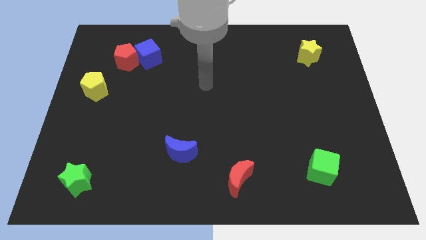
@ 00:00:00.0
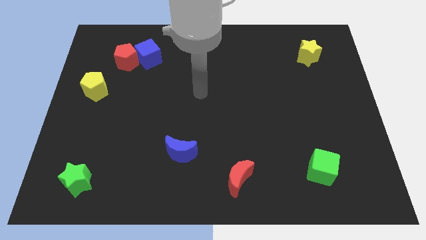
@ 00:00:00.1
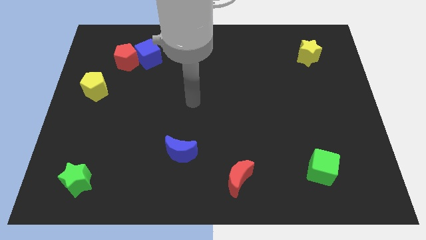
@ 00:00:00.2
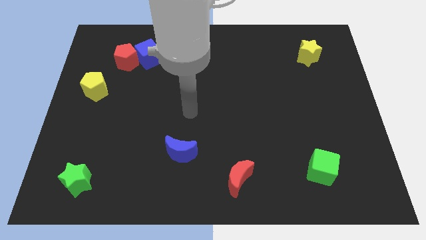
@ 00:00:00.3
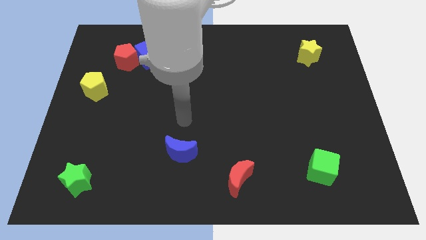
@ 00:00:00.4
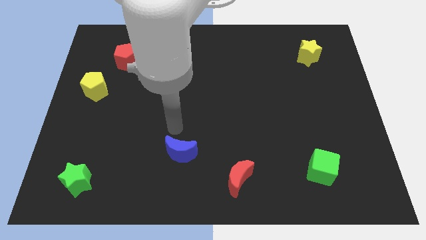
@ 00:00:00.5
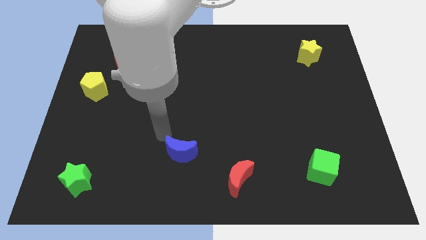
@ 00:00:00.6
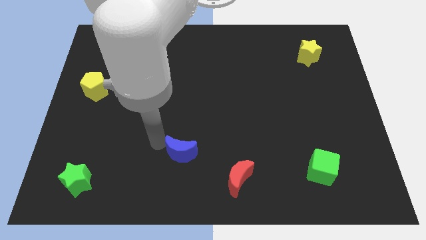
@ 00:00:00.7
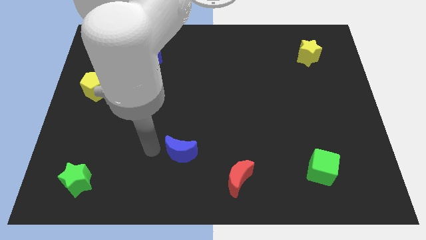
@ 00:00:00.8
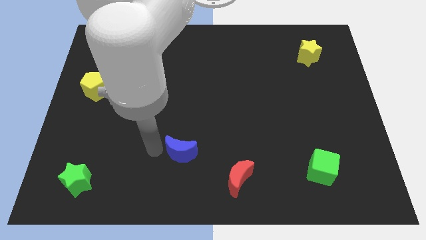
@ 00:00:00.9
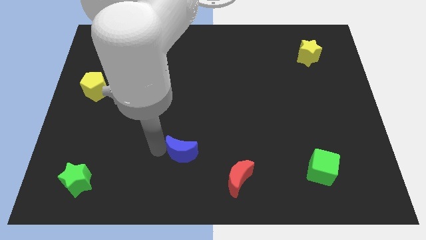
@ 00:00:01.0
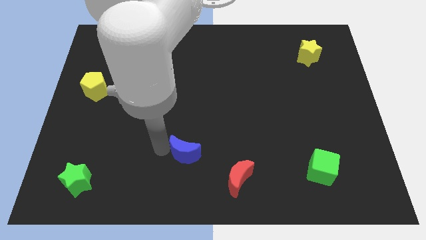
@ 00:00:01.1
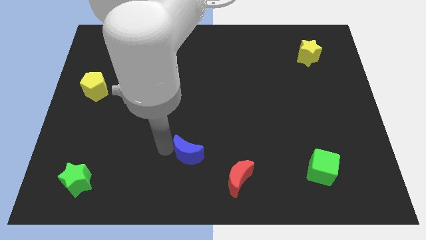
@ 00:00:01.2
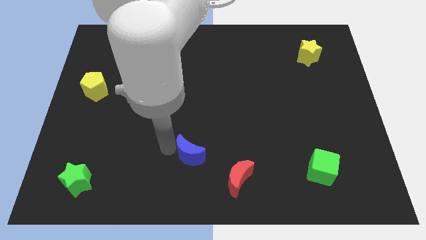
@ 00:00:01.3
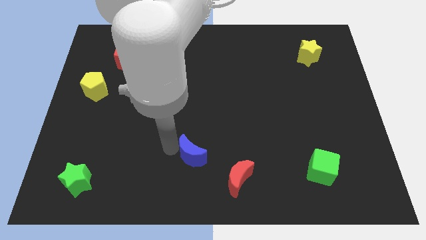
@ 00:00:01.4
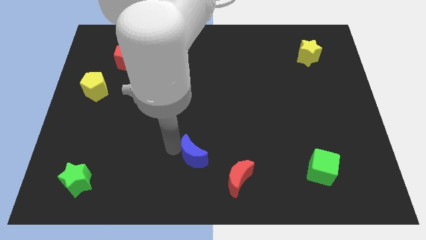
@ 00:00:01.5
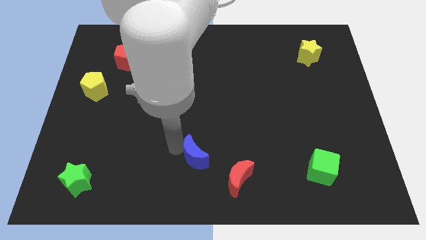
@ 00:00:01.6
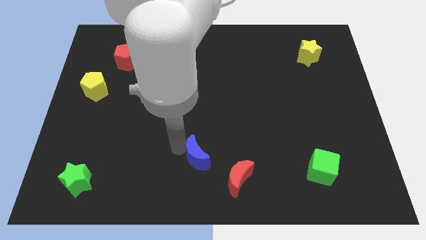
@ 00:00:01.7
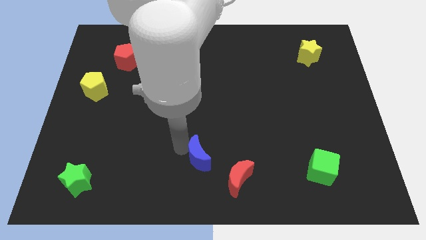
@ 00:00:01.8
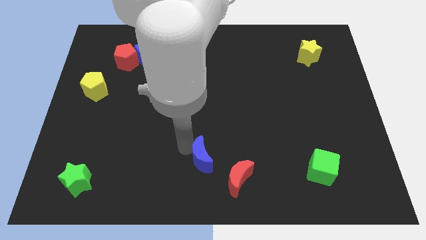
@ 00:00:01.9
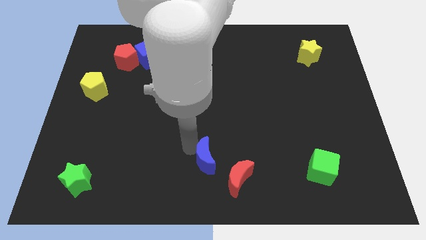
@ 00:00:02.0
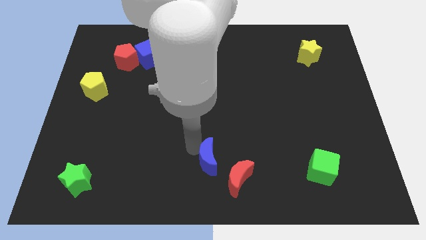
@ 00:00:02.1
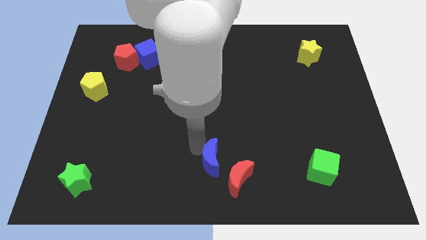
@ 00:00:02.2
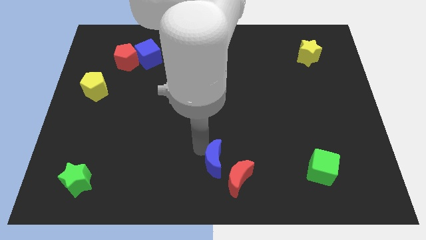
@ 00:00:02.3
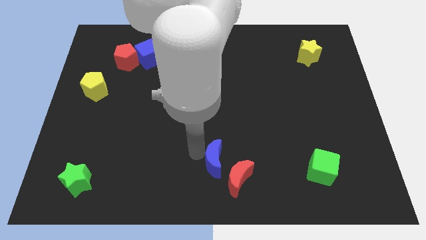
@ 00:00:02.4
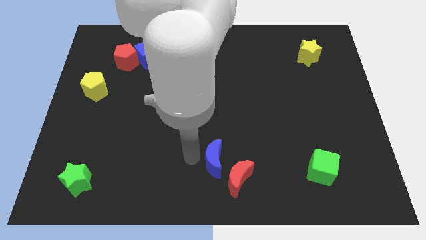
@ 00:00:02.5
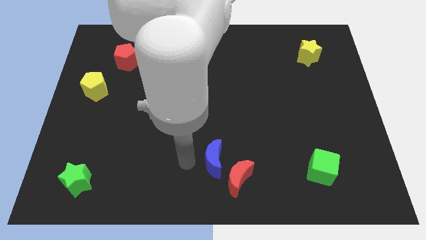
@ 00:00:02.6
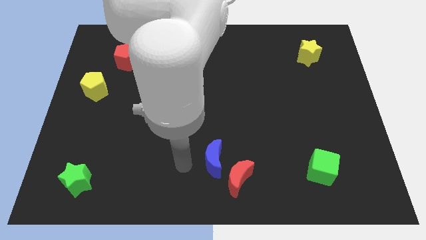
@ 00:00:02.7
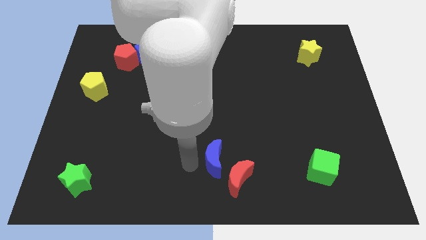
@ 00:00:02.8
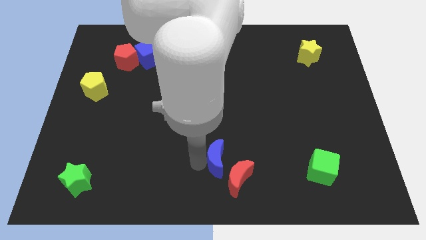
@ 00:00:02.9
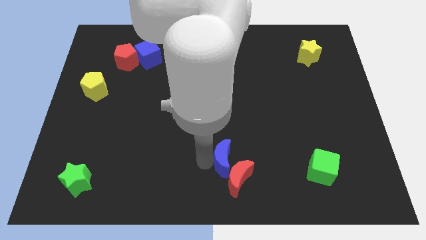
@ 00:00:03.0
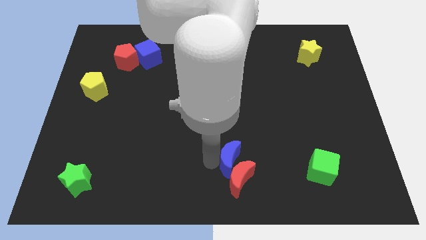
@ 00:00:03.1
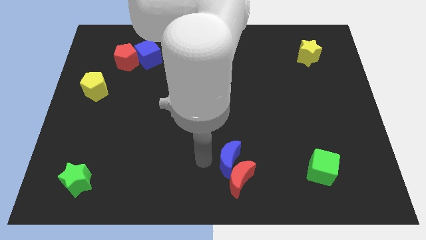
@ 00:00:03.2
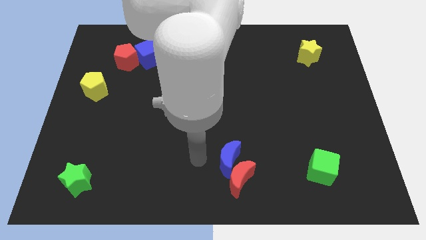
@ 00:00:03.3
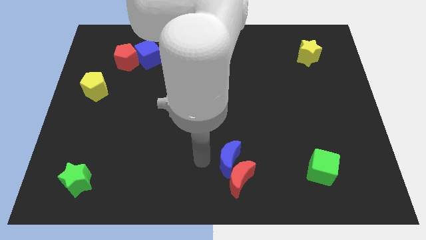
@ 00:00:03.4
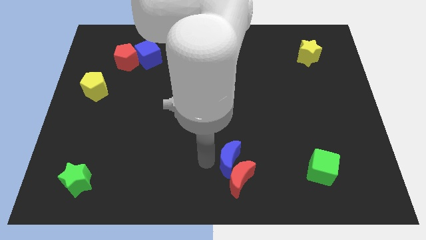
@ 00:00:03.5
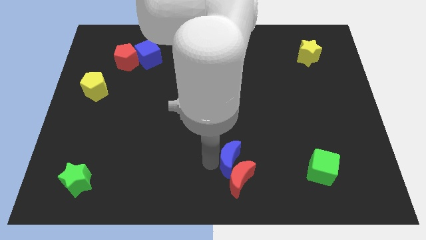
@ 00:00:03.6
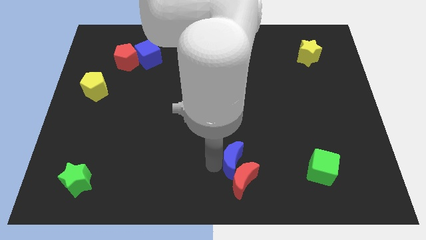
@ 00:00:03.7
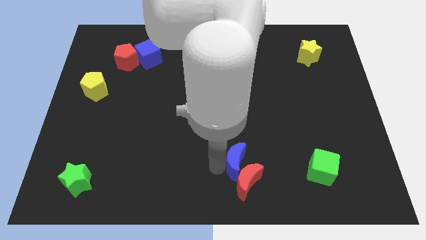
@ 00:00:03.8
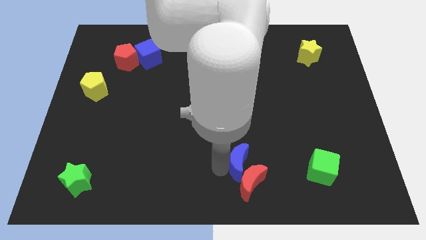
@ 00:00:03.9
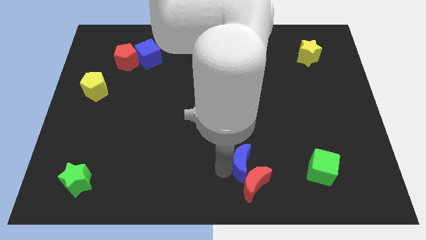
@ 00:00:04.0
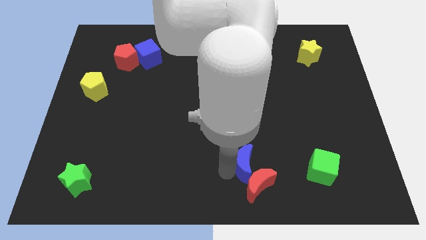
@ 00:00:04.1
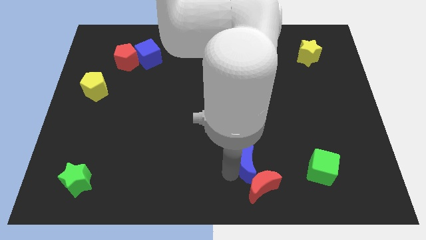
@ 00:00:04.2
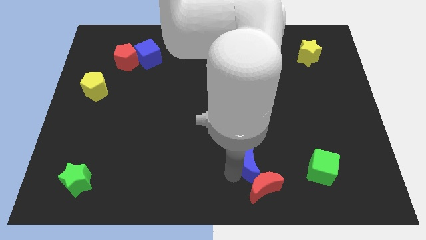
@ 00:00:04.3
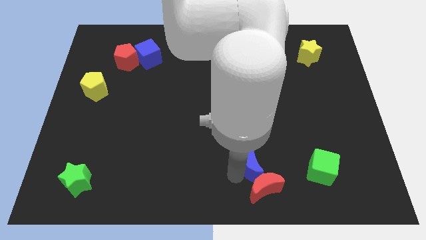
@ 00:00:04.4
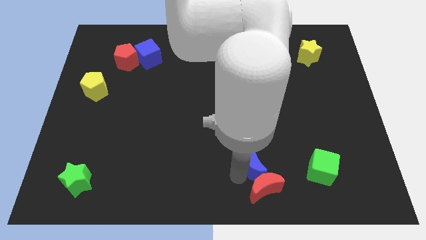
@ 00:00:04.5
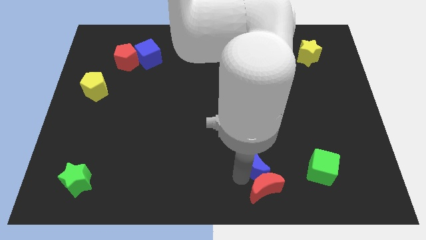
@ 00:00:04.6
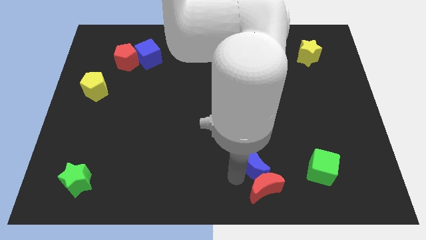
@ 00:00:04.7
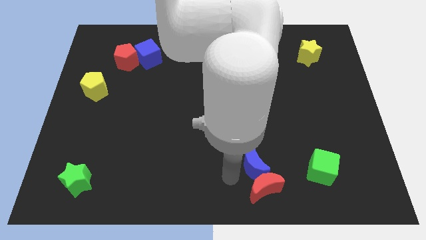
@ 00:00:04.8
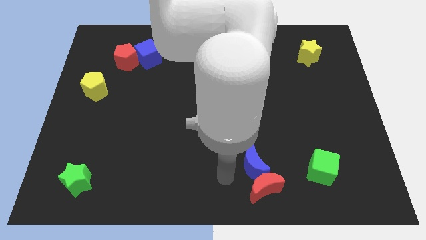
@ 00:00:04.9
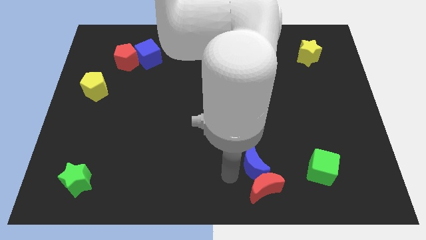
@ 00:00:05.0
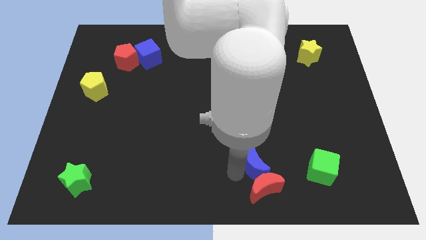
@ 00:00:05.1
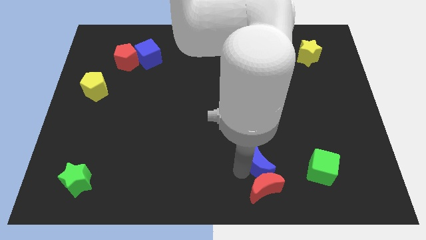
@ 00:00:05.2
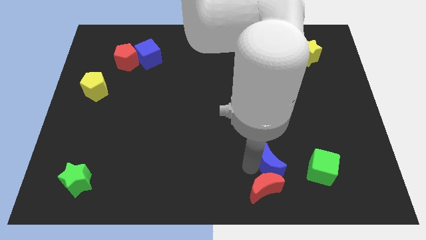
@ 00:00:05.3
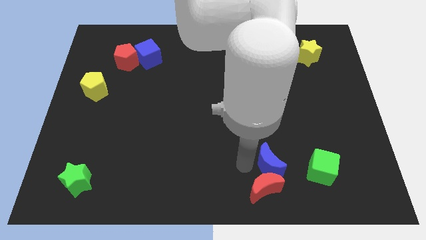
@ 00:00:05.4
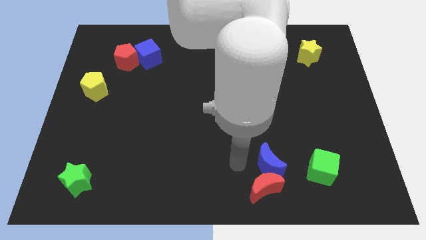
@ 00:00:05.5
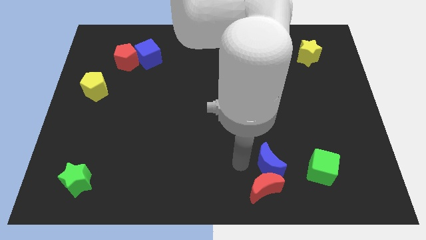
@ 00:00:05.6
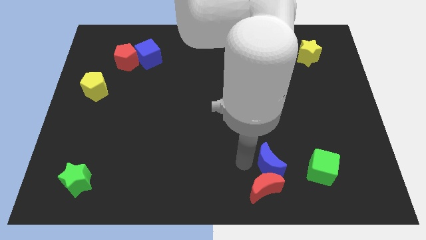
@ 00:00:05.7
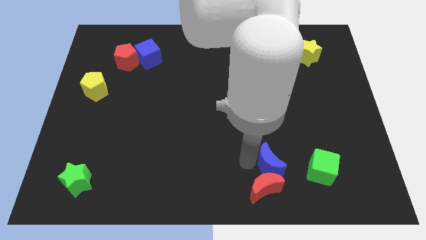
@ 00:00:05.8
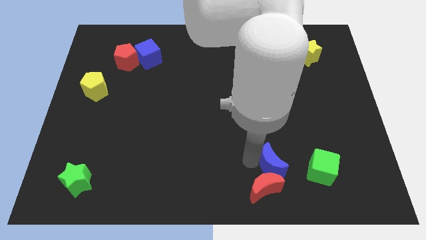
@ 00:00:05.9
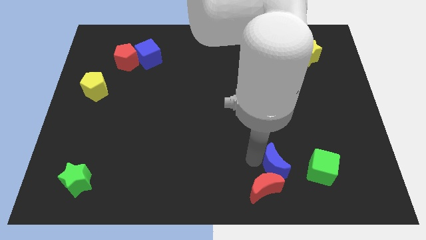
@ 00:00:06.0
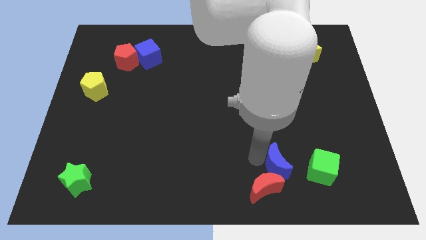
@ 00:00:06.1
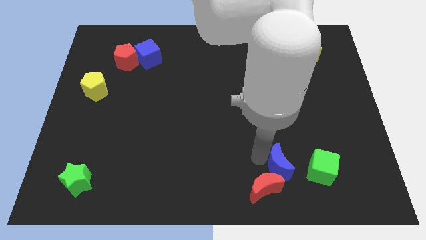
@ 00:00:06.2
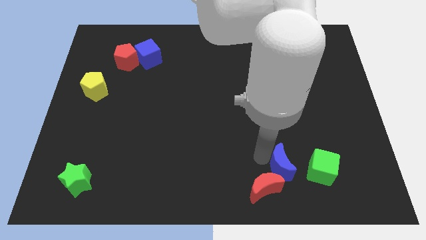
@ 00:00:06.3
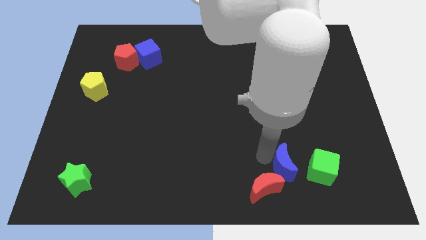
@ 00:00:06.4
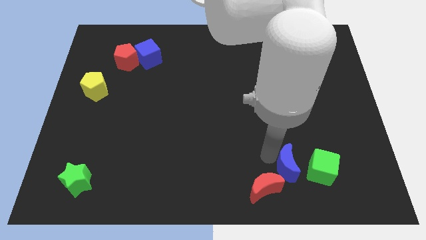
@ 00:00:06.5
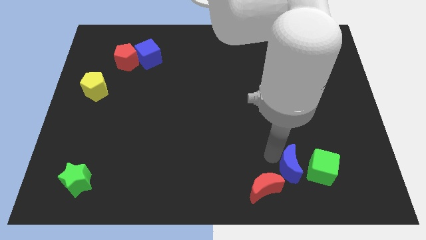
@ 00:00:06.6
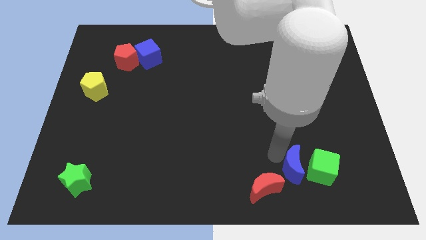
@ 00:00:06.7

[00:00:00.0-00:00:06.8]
put the blue moon close to the green cube
